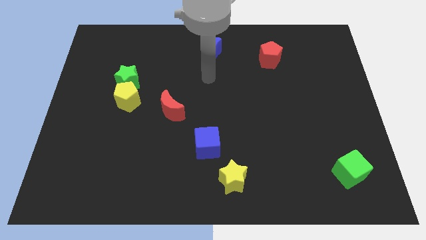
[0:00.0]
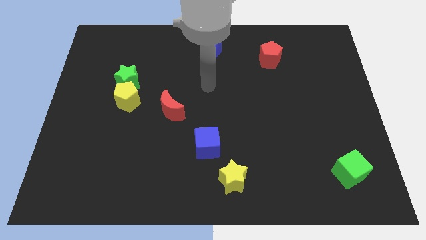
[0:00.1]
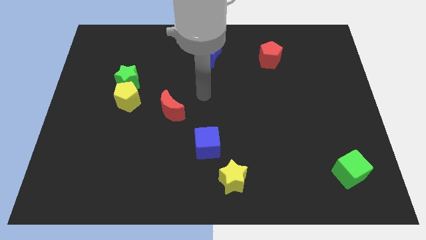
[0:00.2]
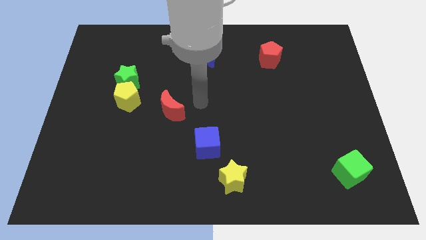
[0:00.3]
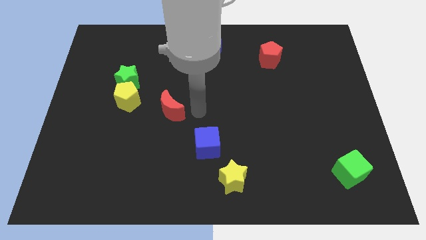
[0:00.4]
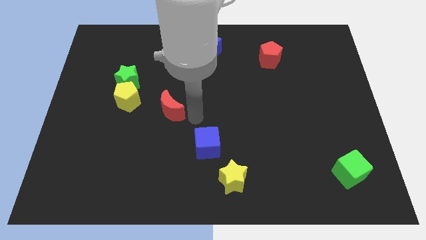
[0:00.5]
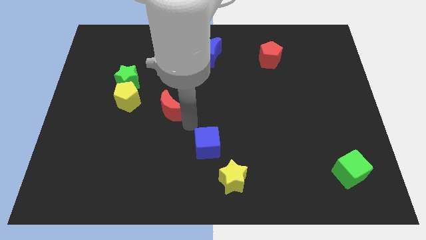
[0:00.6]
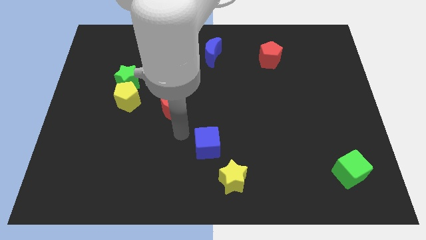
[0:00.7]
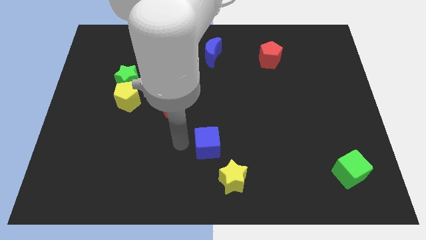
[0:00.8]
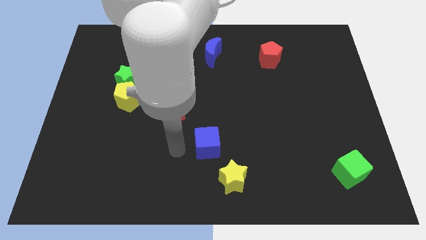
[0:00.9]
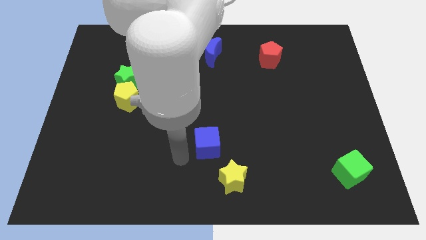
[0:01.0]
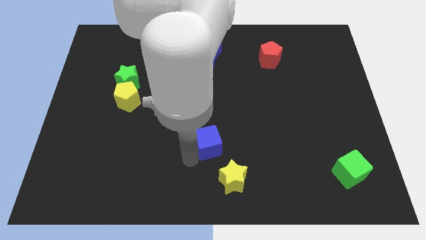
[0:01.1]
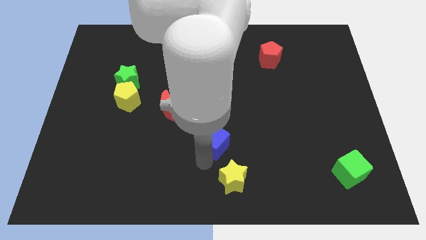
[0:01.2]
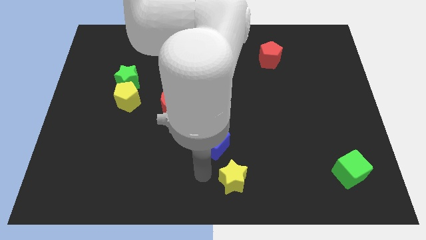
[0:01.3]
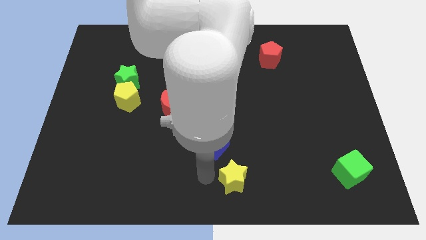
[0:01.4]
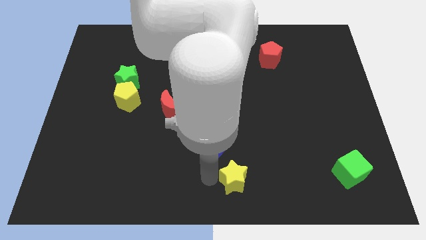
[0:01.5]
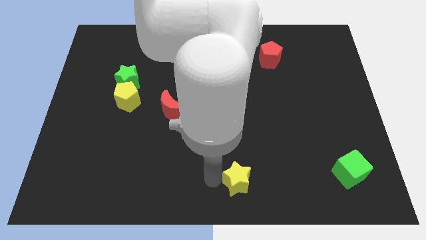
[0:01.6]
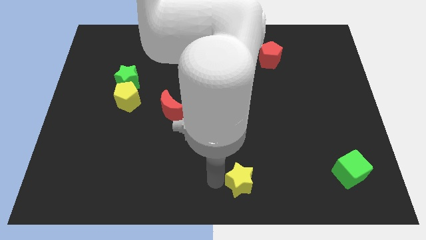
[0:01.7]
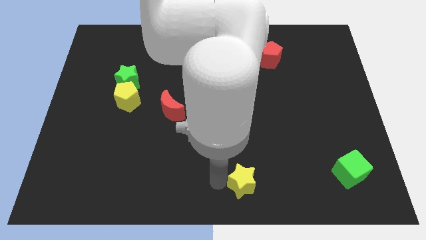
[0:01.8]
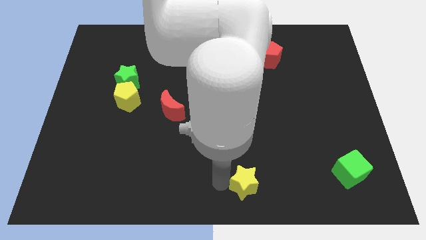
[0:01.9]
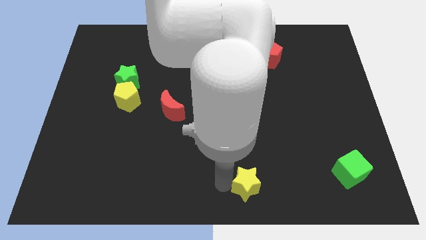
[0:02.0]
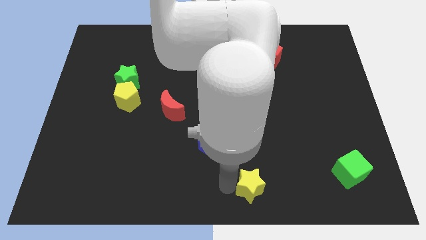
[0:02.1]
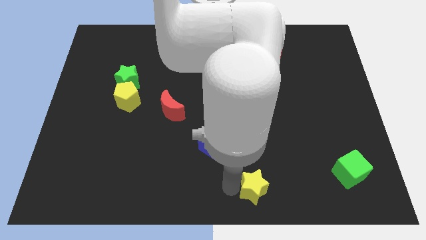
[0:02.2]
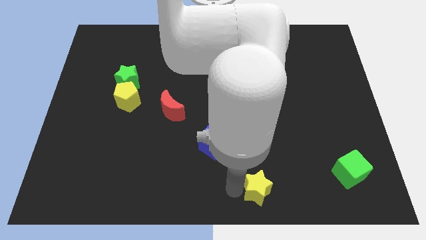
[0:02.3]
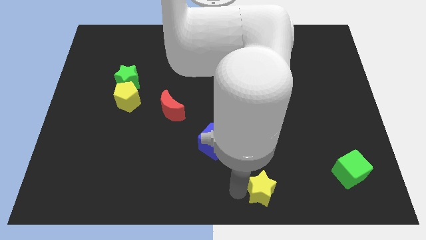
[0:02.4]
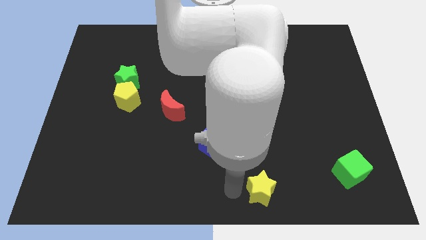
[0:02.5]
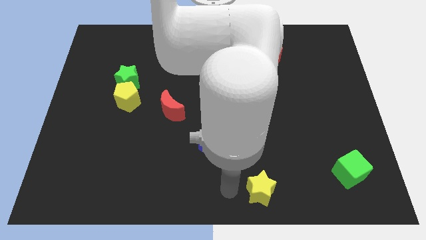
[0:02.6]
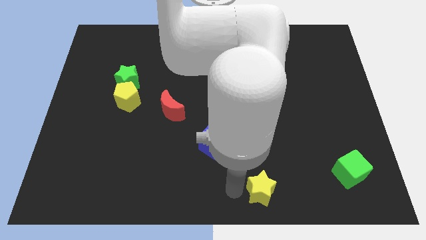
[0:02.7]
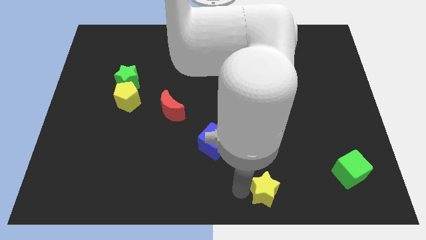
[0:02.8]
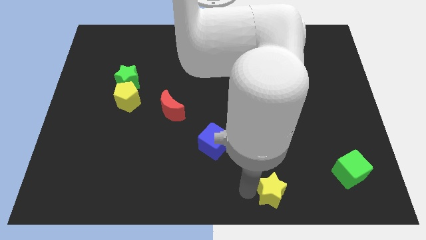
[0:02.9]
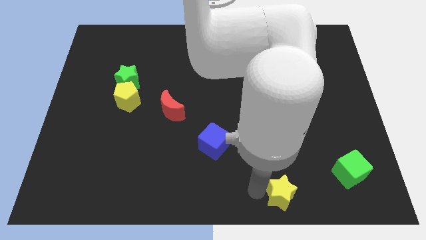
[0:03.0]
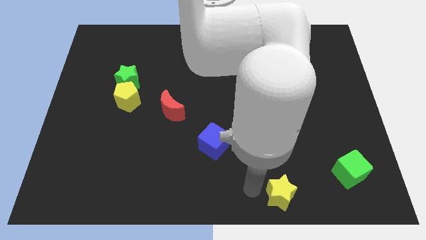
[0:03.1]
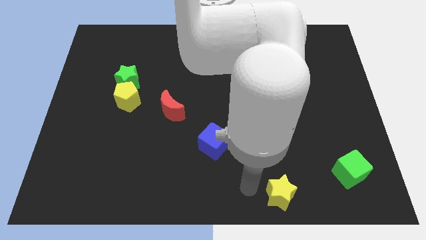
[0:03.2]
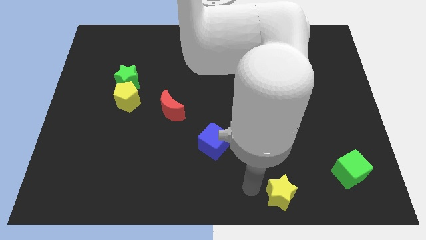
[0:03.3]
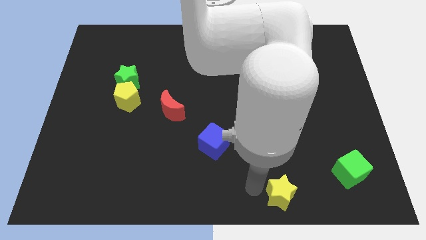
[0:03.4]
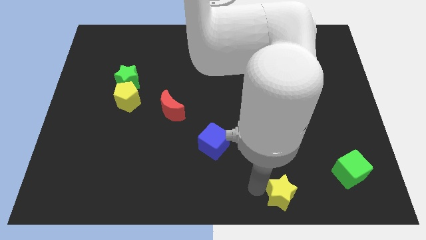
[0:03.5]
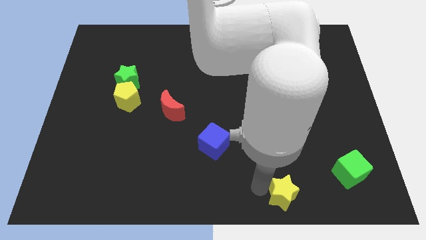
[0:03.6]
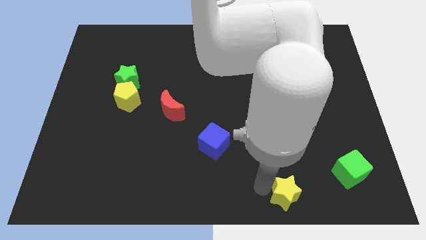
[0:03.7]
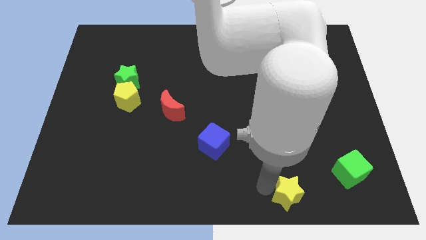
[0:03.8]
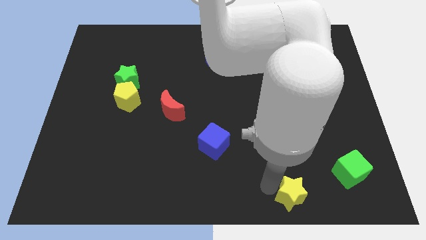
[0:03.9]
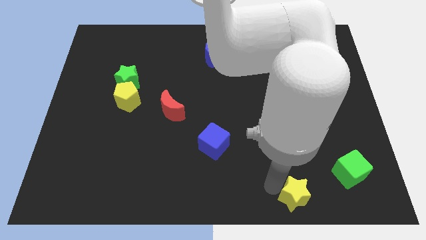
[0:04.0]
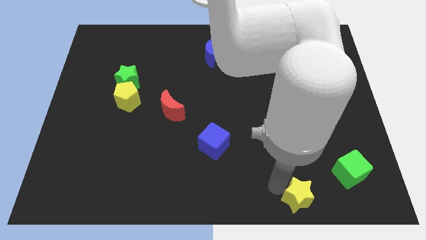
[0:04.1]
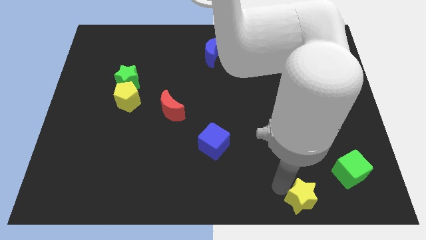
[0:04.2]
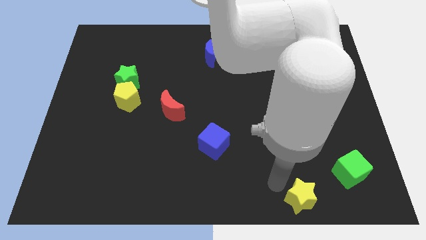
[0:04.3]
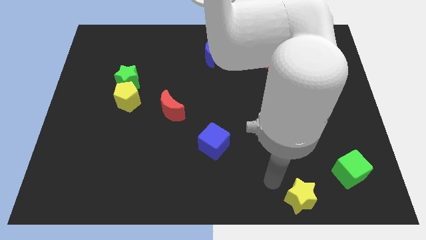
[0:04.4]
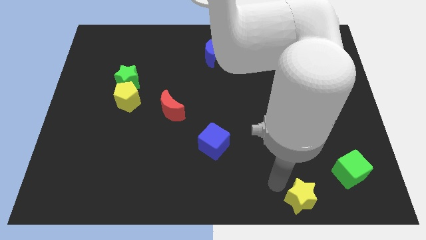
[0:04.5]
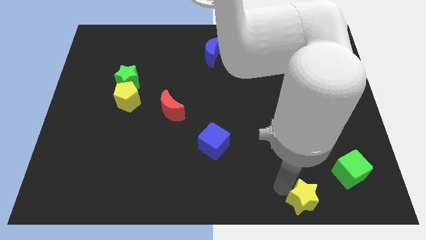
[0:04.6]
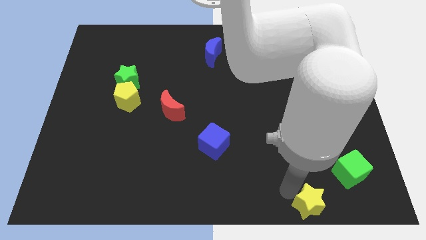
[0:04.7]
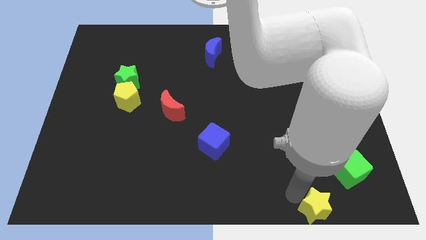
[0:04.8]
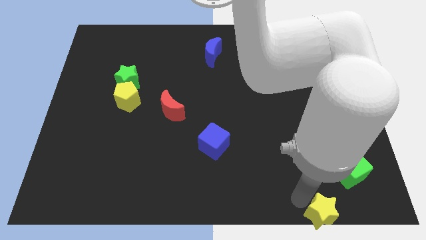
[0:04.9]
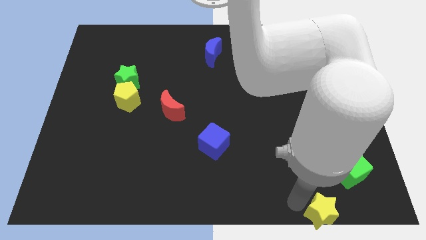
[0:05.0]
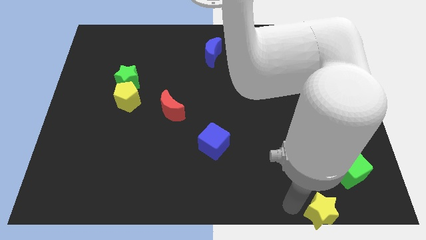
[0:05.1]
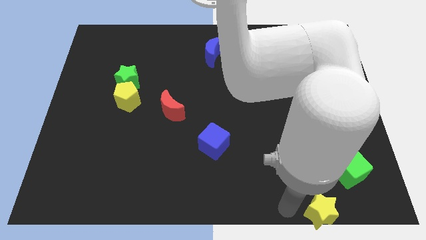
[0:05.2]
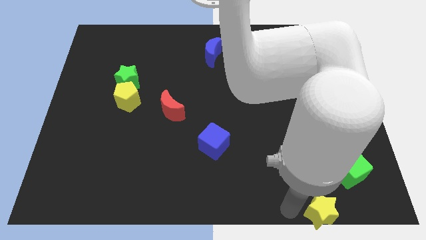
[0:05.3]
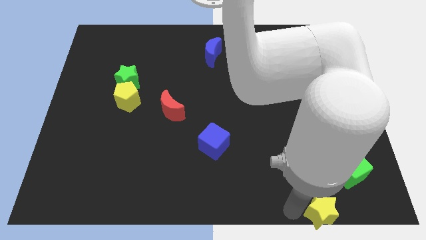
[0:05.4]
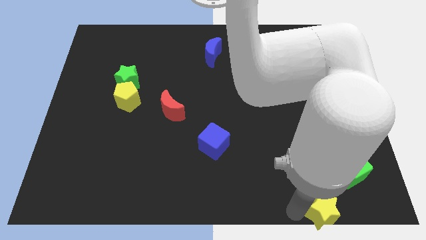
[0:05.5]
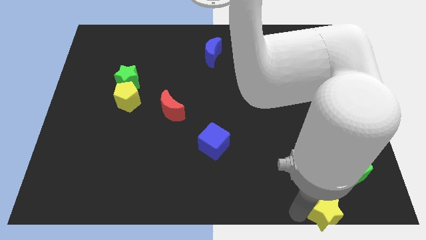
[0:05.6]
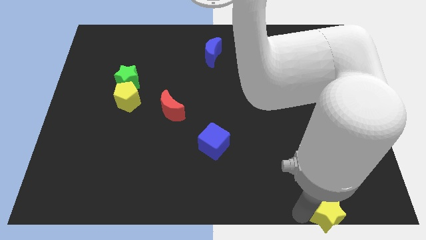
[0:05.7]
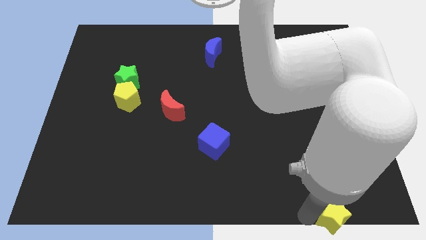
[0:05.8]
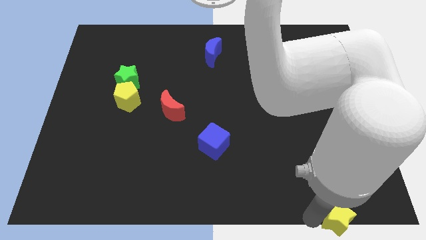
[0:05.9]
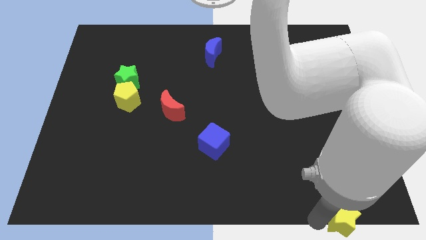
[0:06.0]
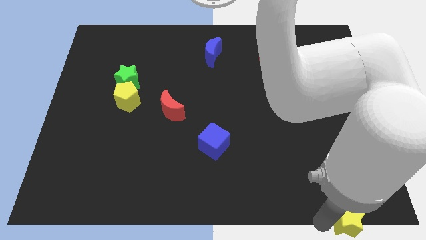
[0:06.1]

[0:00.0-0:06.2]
put the yellow star to the lower right corner
